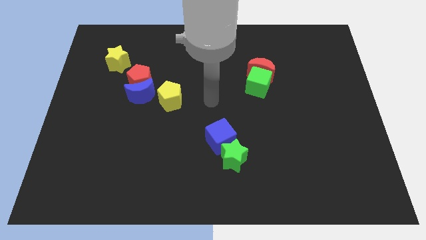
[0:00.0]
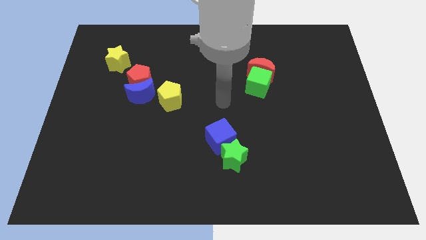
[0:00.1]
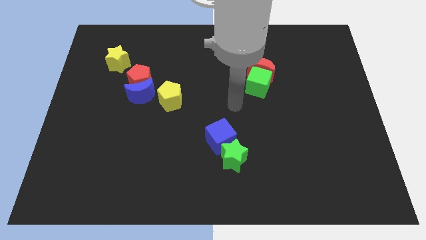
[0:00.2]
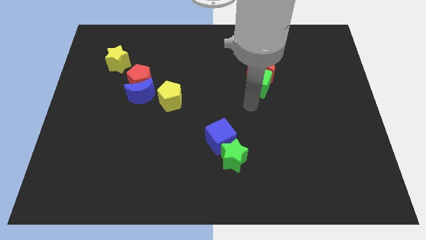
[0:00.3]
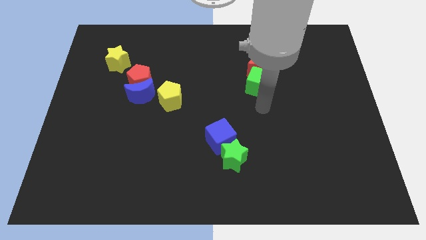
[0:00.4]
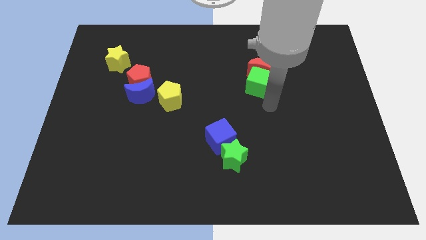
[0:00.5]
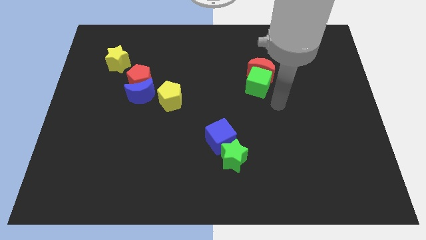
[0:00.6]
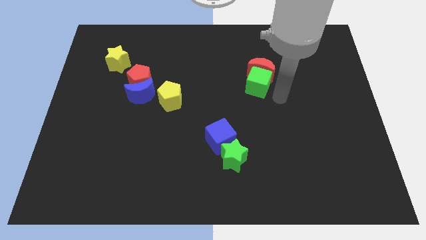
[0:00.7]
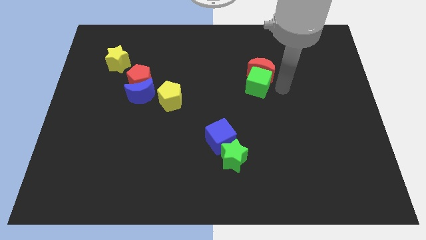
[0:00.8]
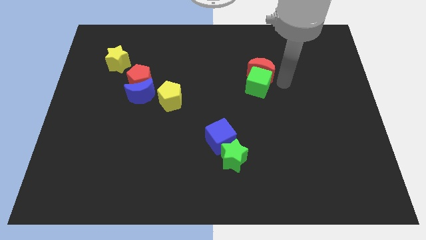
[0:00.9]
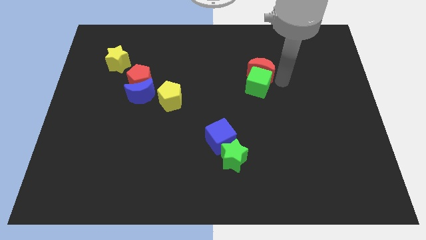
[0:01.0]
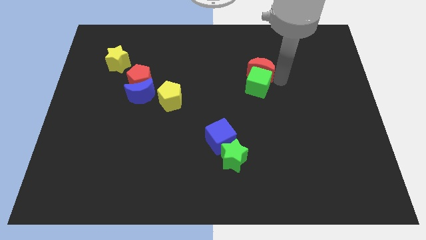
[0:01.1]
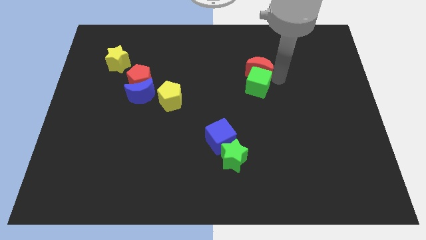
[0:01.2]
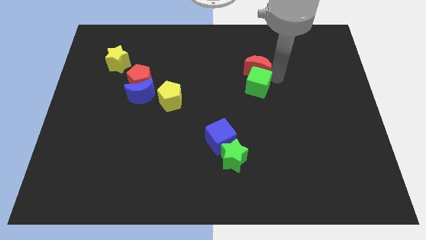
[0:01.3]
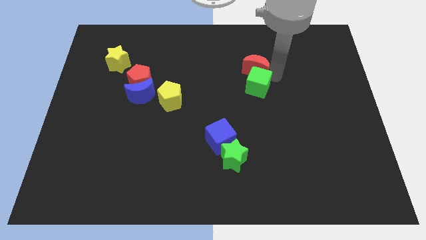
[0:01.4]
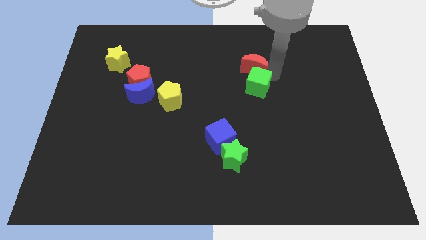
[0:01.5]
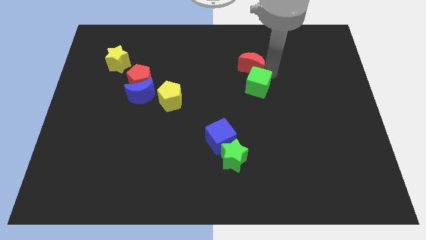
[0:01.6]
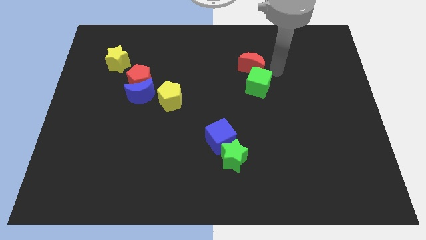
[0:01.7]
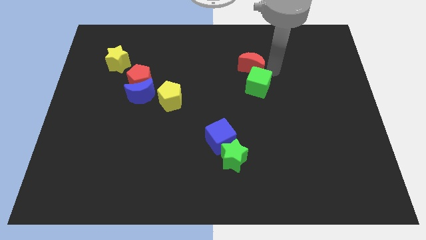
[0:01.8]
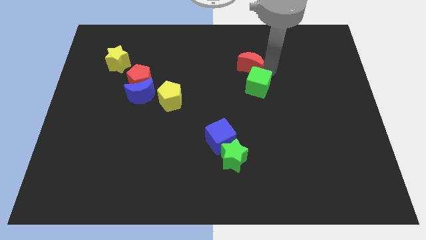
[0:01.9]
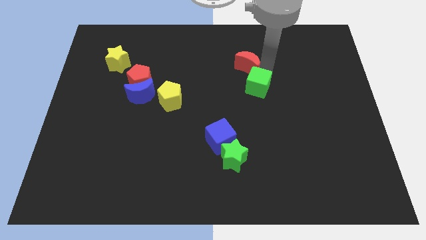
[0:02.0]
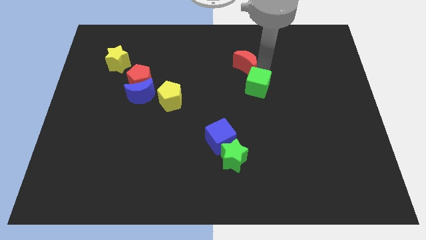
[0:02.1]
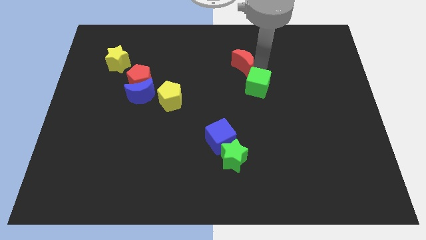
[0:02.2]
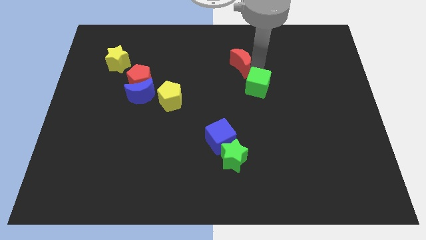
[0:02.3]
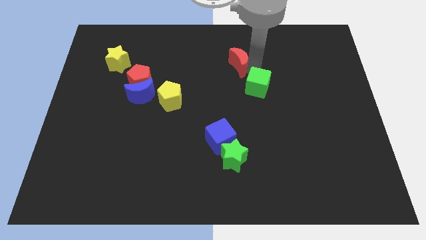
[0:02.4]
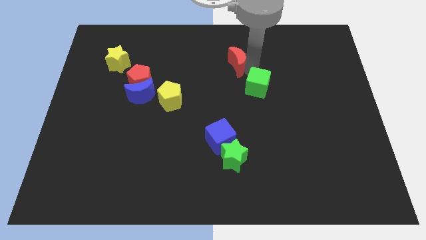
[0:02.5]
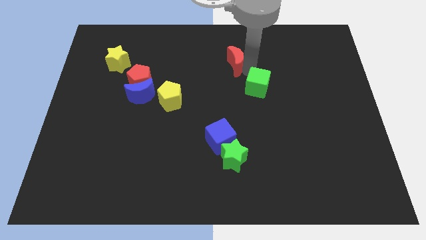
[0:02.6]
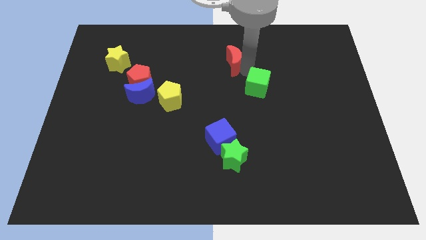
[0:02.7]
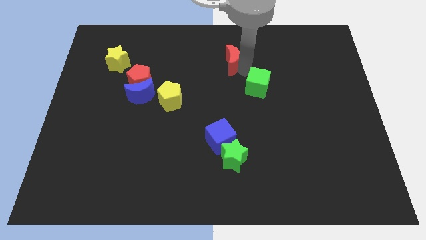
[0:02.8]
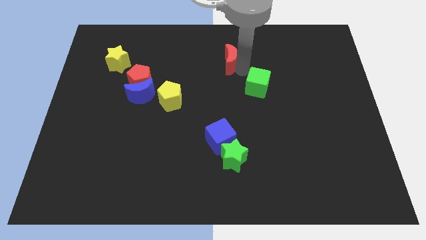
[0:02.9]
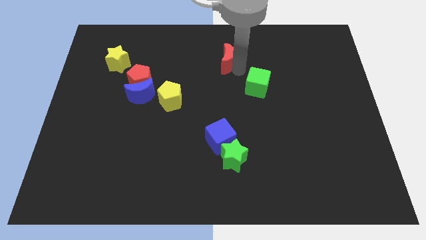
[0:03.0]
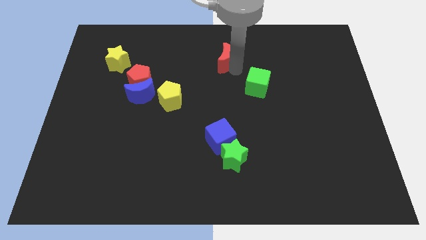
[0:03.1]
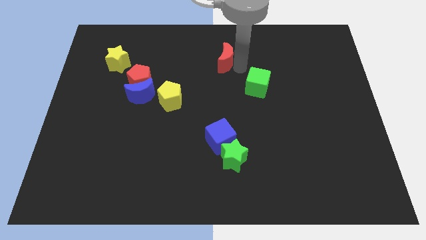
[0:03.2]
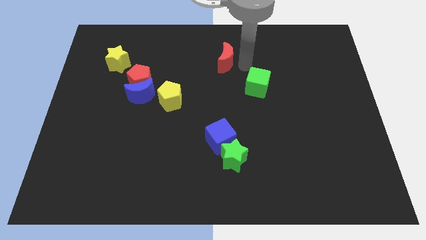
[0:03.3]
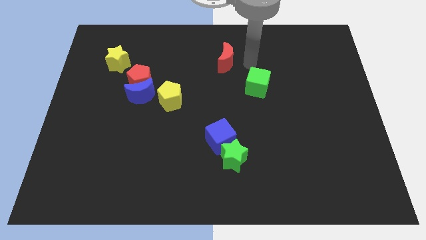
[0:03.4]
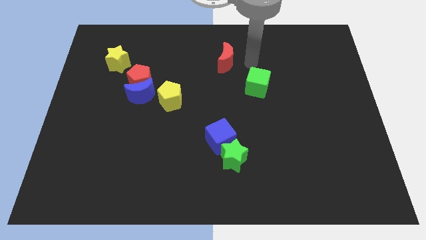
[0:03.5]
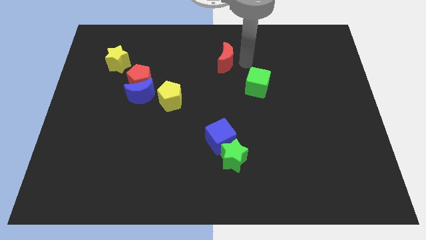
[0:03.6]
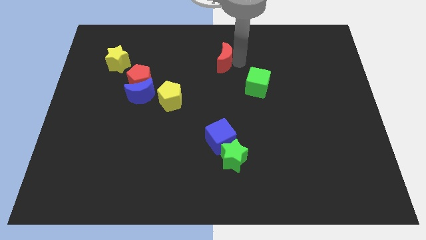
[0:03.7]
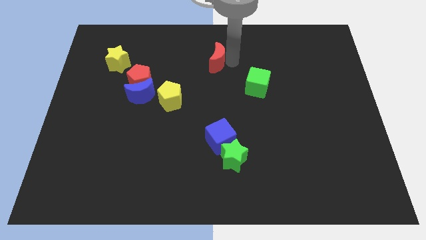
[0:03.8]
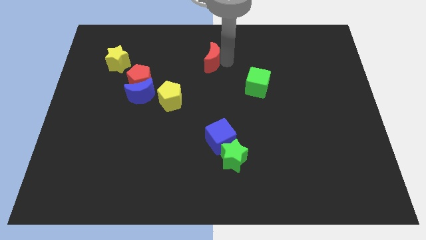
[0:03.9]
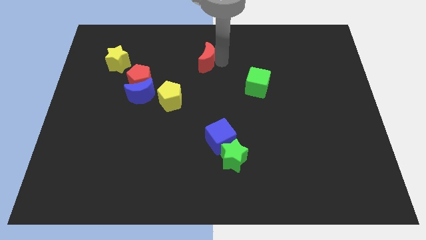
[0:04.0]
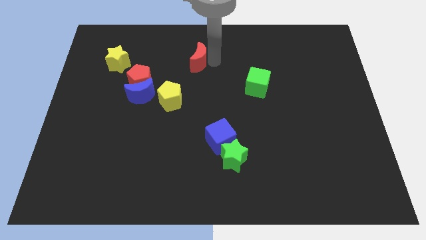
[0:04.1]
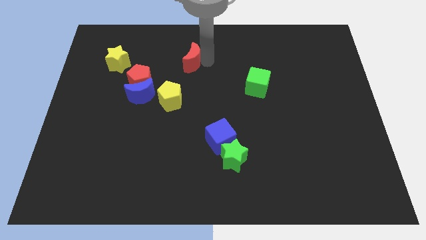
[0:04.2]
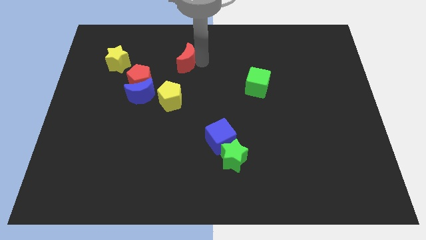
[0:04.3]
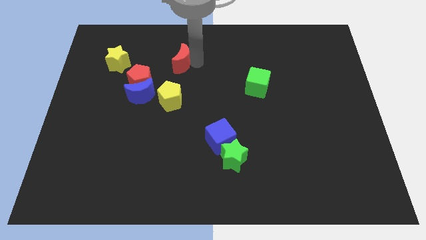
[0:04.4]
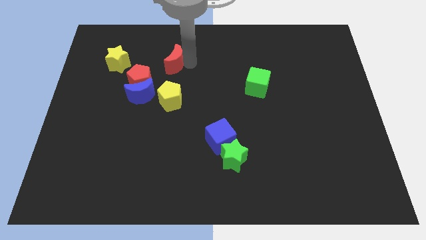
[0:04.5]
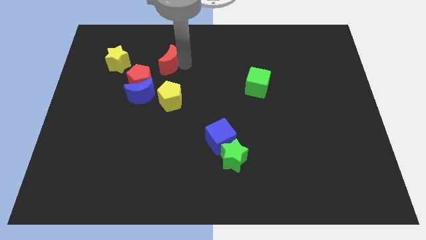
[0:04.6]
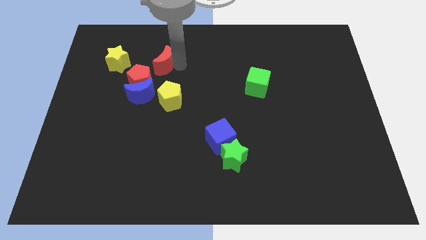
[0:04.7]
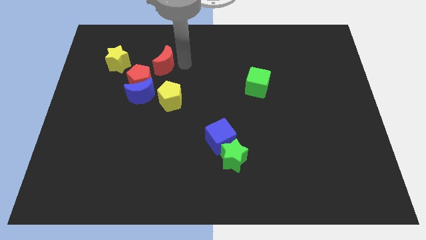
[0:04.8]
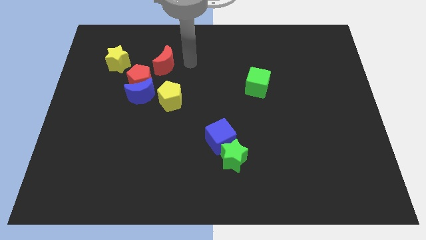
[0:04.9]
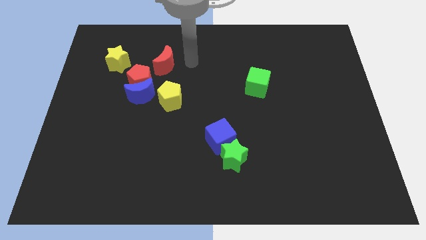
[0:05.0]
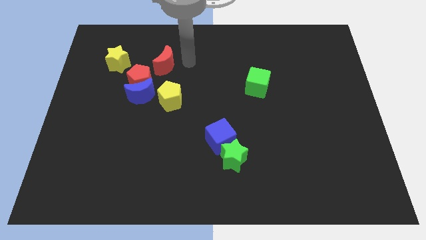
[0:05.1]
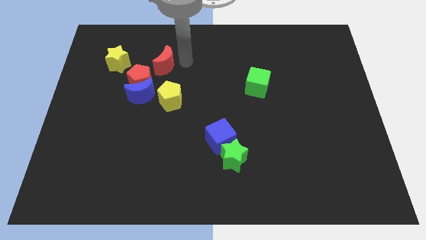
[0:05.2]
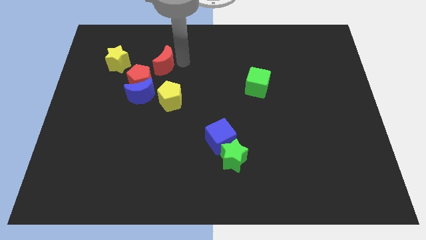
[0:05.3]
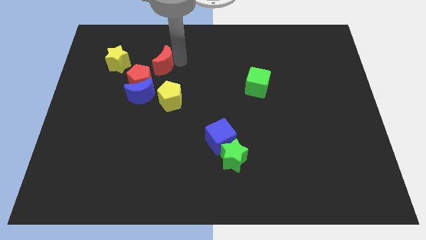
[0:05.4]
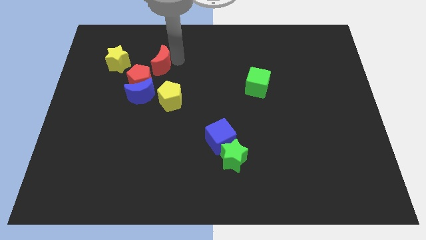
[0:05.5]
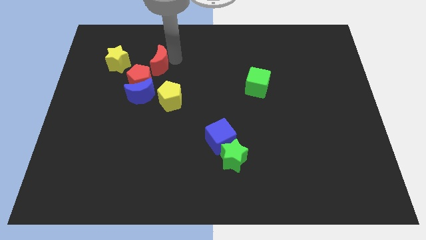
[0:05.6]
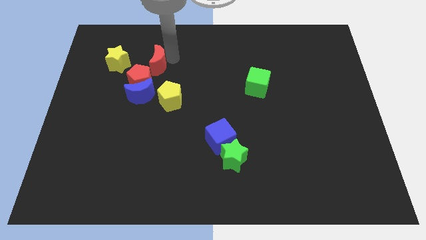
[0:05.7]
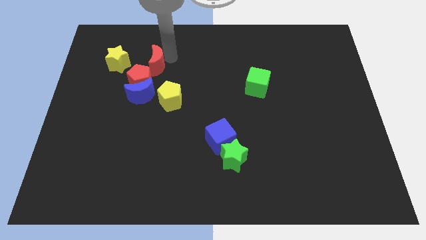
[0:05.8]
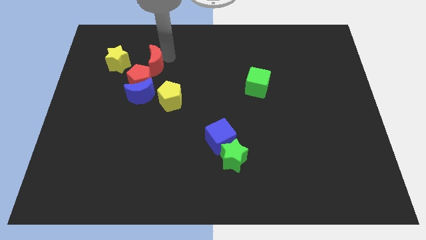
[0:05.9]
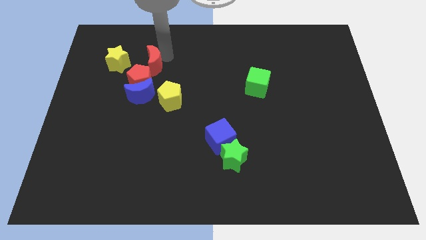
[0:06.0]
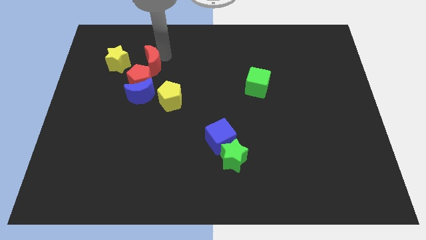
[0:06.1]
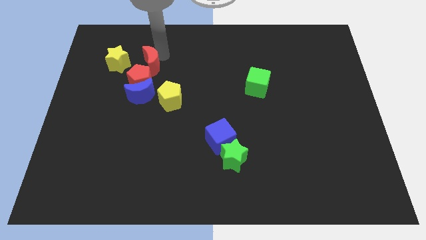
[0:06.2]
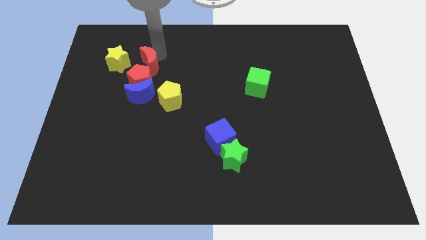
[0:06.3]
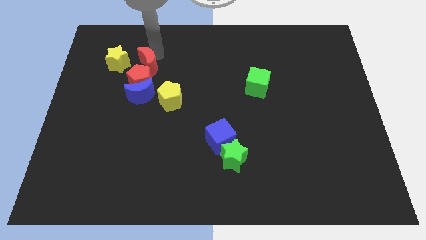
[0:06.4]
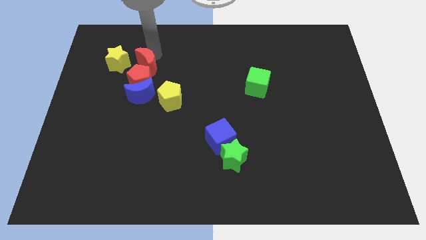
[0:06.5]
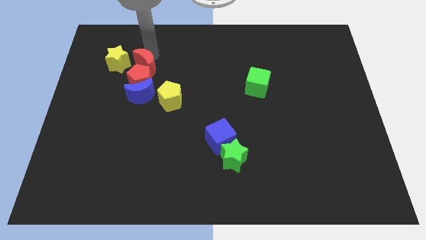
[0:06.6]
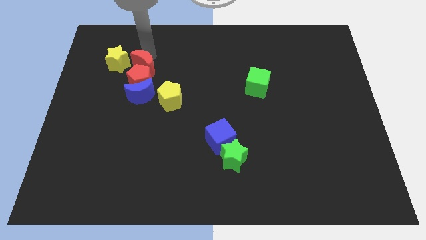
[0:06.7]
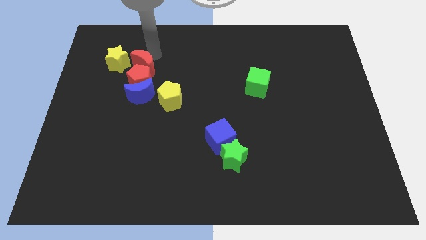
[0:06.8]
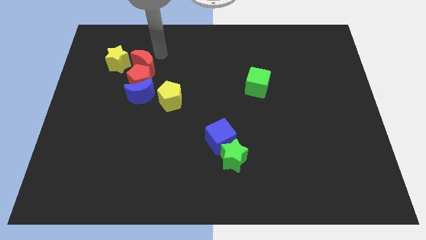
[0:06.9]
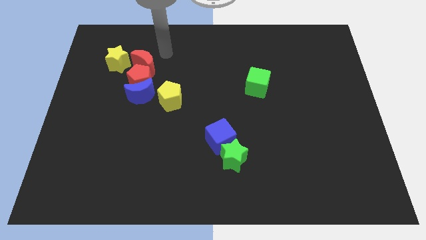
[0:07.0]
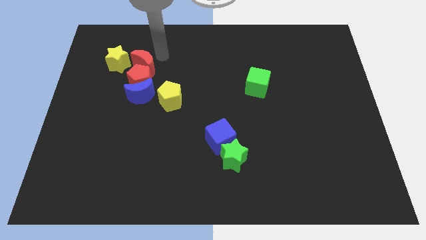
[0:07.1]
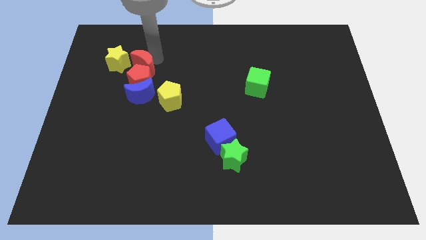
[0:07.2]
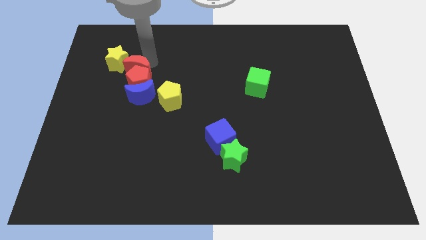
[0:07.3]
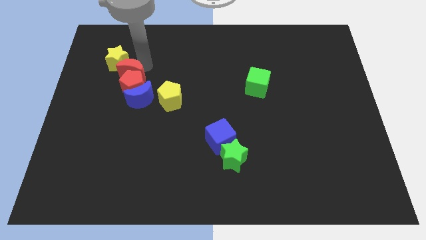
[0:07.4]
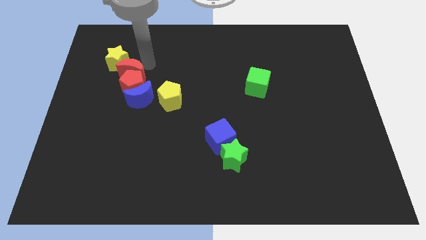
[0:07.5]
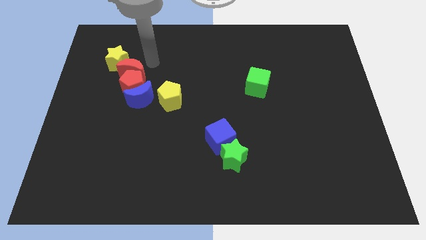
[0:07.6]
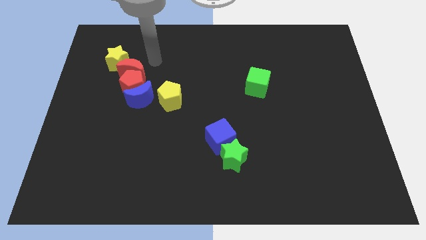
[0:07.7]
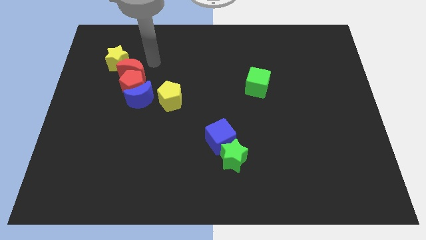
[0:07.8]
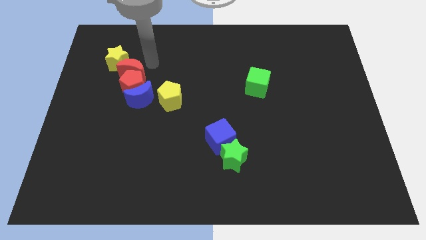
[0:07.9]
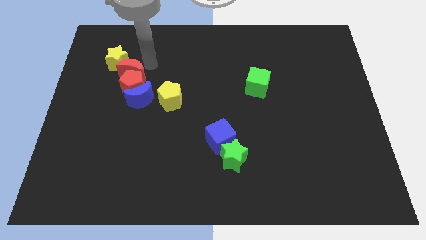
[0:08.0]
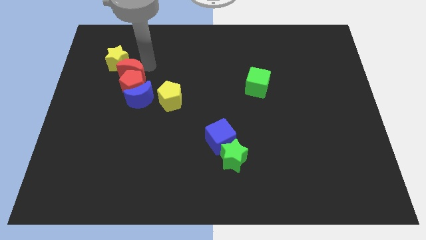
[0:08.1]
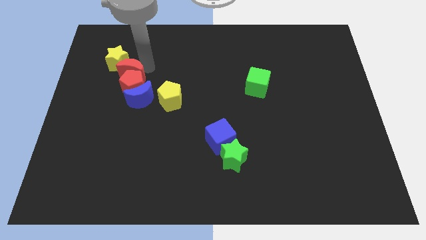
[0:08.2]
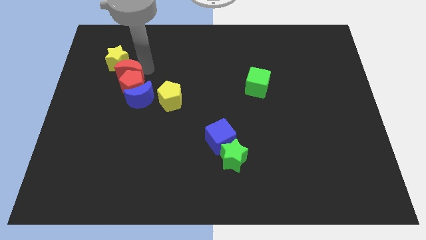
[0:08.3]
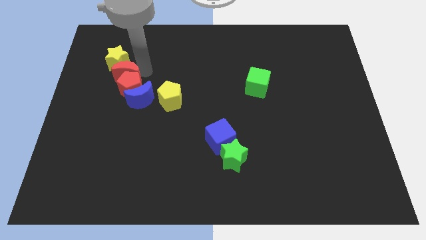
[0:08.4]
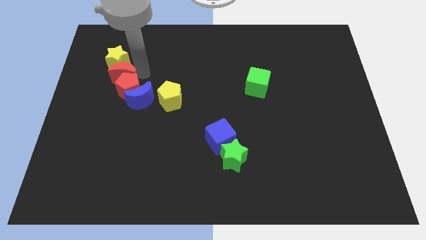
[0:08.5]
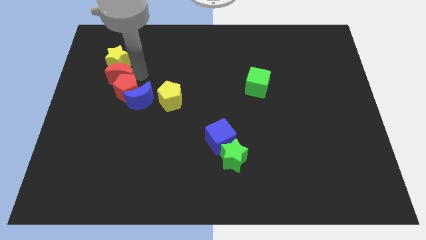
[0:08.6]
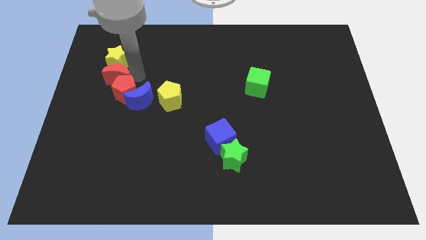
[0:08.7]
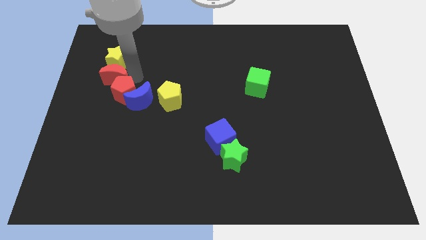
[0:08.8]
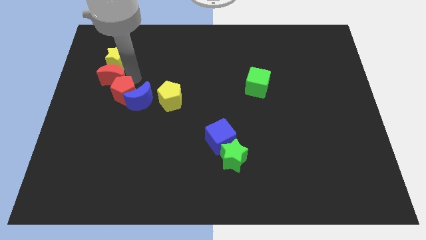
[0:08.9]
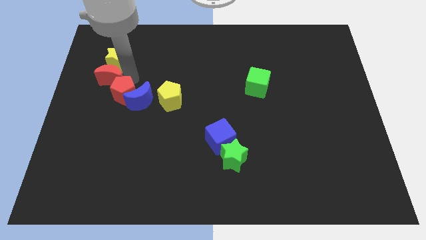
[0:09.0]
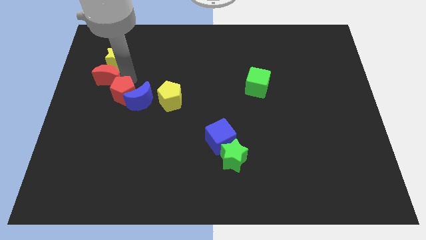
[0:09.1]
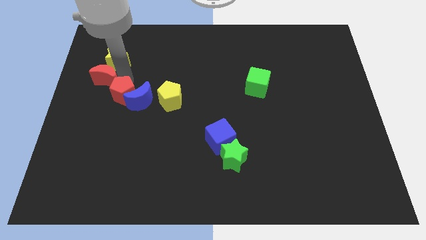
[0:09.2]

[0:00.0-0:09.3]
push the red moon to the left side
